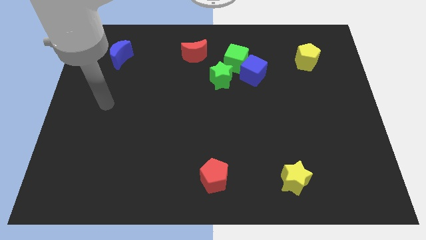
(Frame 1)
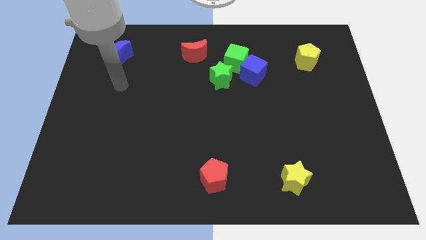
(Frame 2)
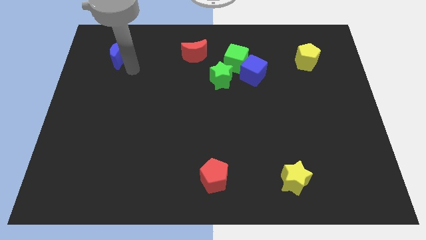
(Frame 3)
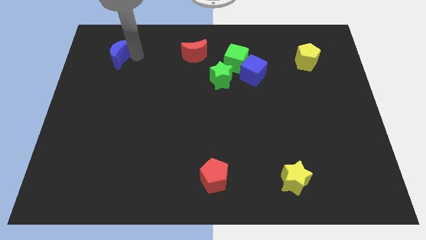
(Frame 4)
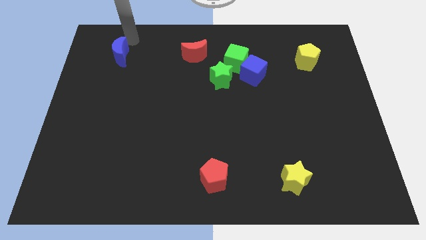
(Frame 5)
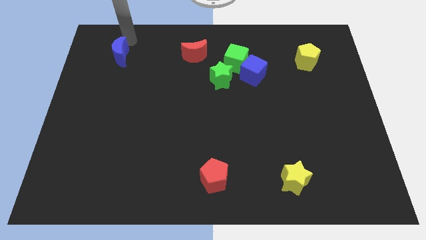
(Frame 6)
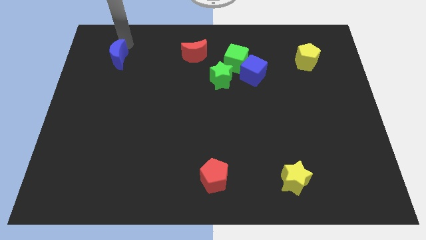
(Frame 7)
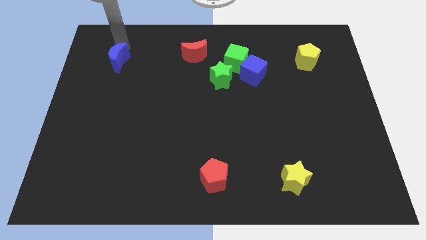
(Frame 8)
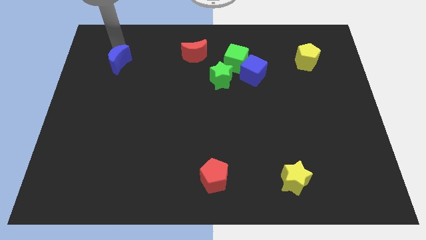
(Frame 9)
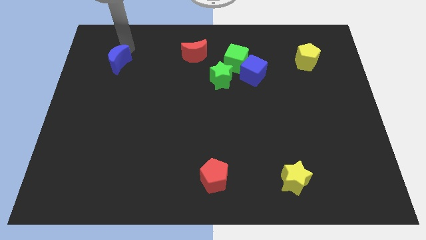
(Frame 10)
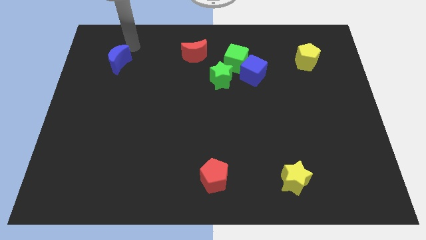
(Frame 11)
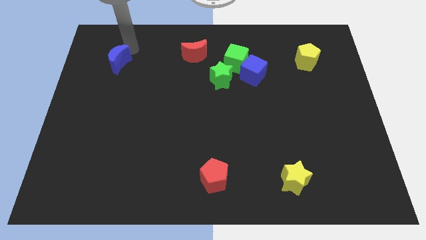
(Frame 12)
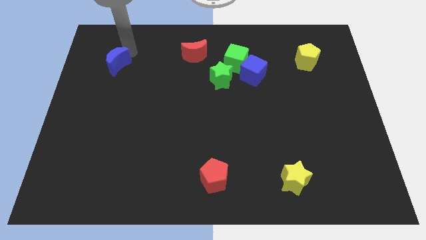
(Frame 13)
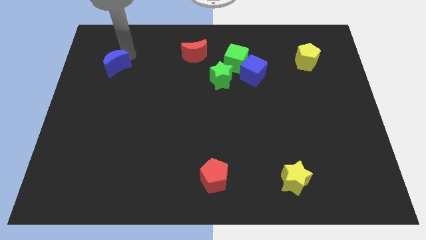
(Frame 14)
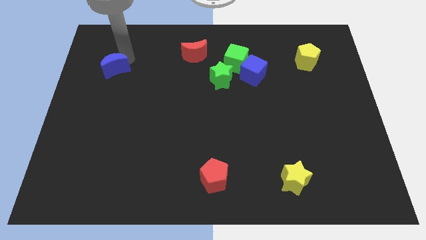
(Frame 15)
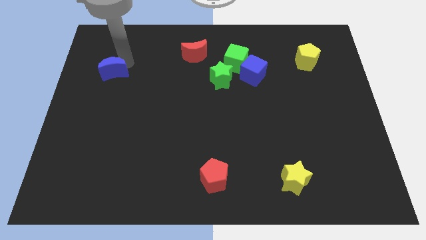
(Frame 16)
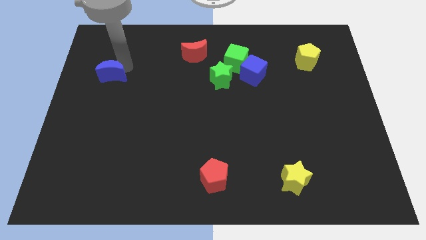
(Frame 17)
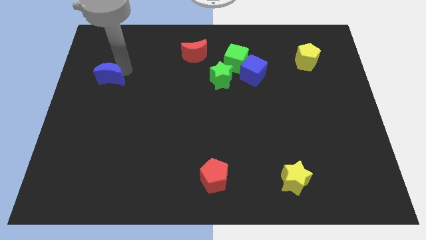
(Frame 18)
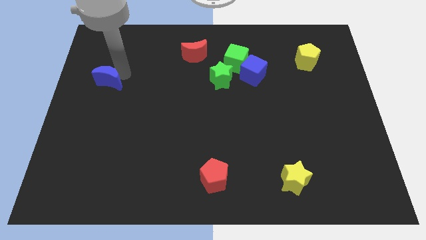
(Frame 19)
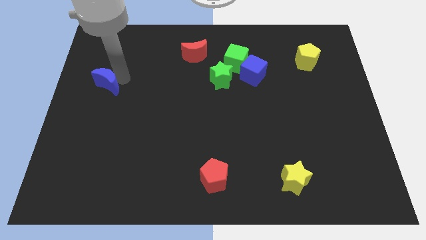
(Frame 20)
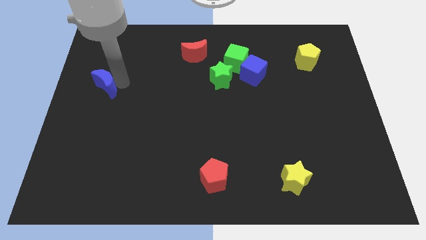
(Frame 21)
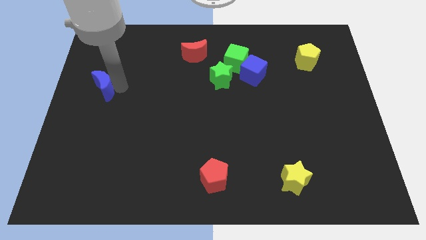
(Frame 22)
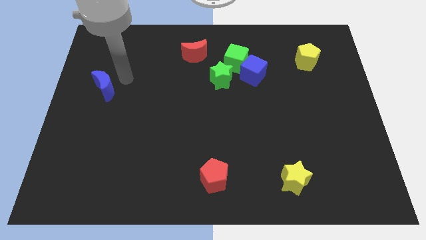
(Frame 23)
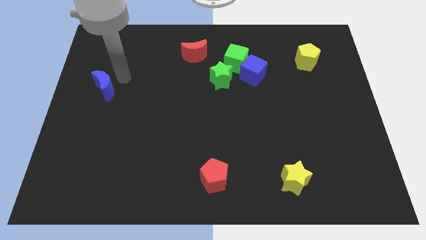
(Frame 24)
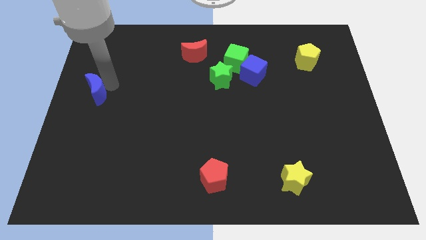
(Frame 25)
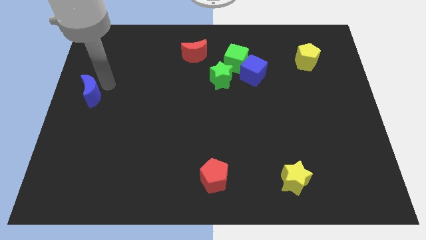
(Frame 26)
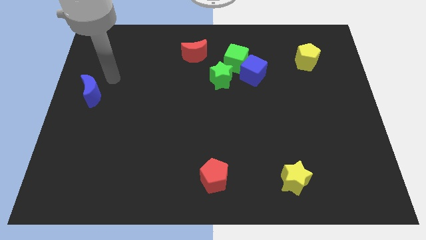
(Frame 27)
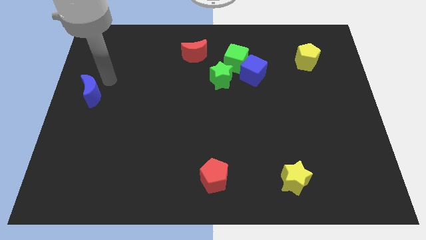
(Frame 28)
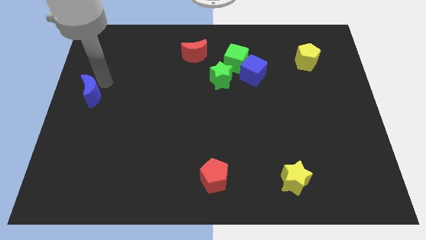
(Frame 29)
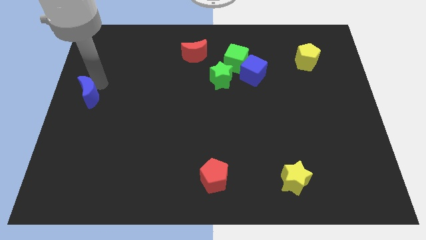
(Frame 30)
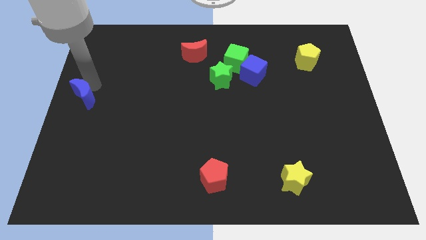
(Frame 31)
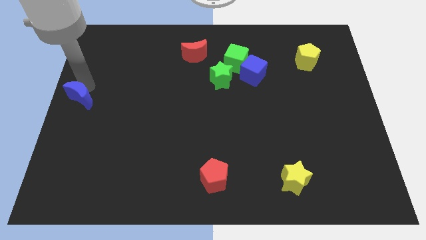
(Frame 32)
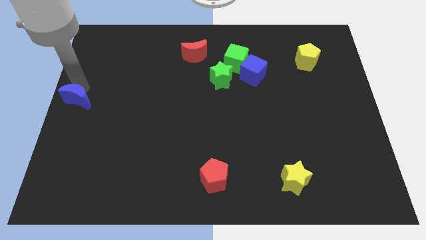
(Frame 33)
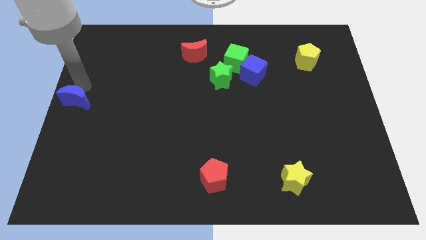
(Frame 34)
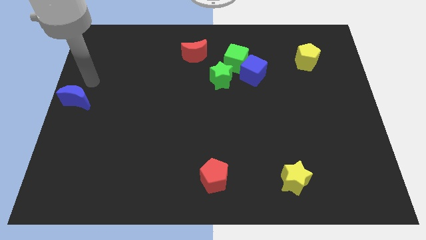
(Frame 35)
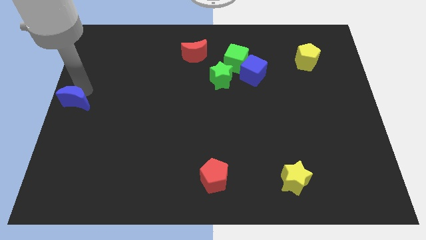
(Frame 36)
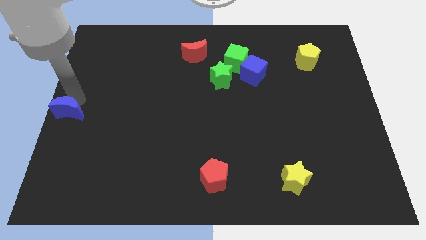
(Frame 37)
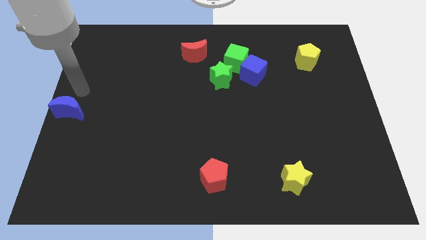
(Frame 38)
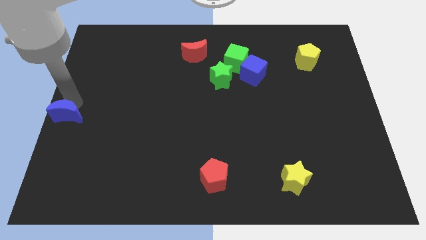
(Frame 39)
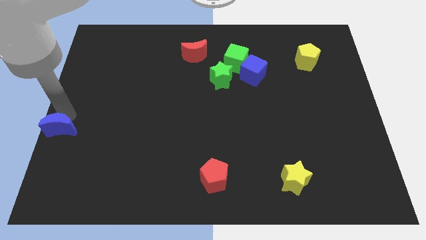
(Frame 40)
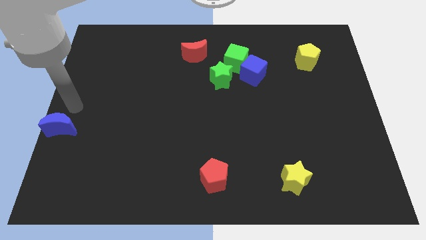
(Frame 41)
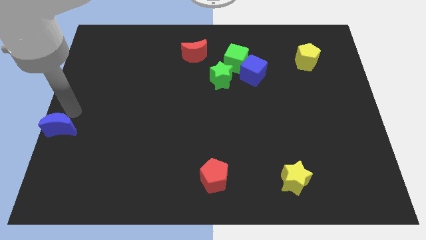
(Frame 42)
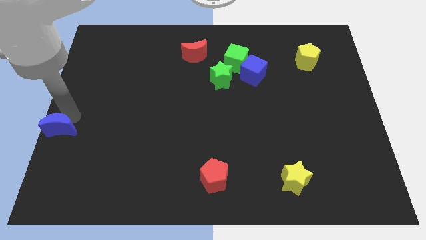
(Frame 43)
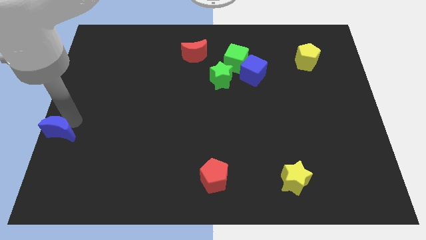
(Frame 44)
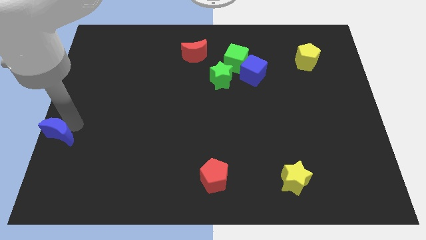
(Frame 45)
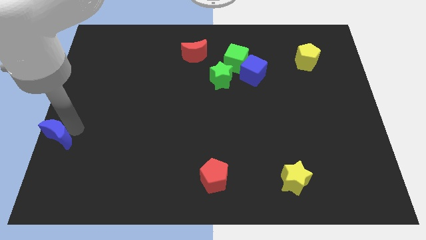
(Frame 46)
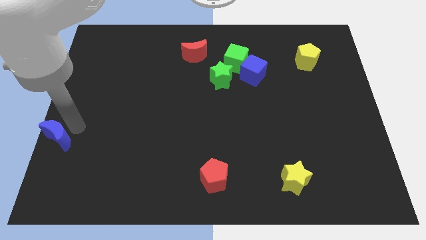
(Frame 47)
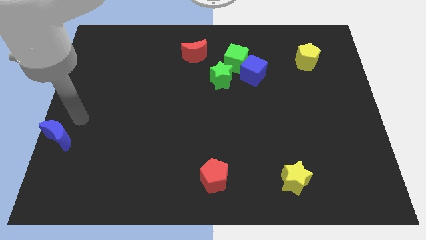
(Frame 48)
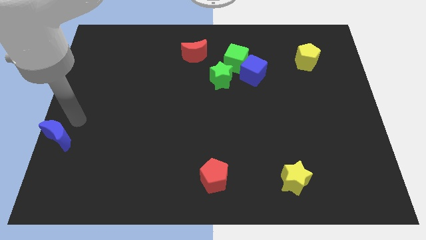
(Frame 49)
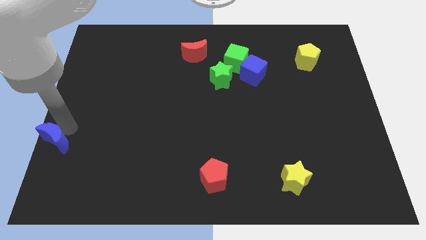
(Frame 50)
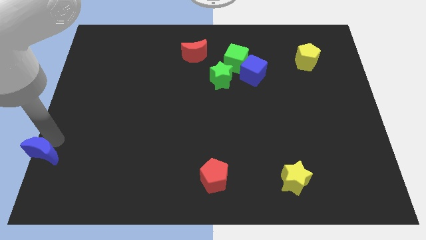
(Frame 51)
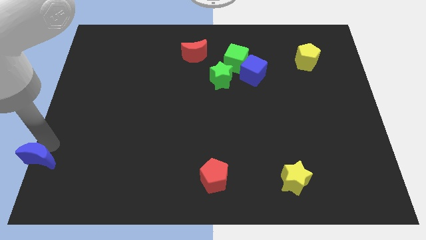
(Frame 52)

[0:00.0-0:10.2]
move the blue moon to the lower left corner
